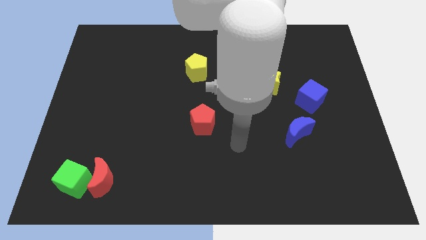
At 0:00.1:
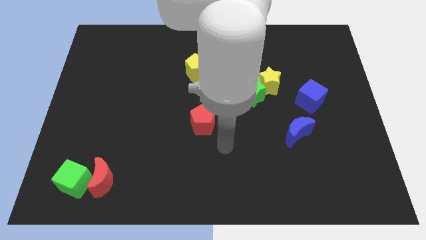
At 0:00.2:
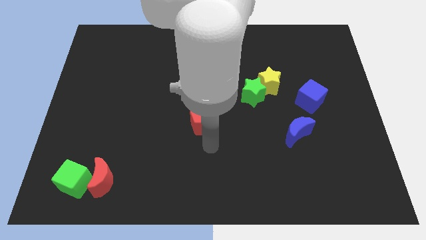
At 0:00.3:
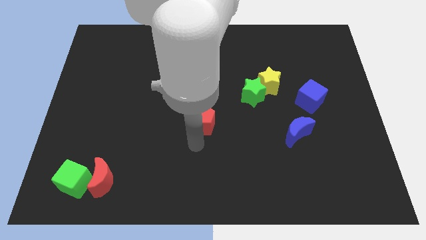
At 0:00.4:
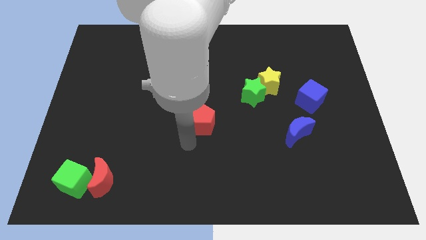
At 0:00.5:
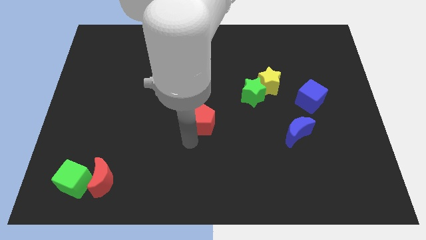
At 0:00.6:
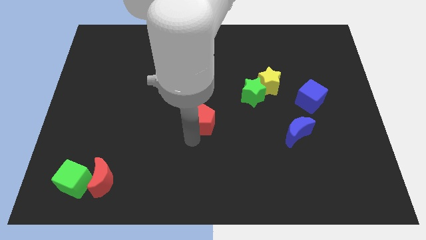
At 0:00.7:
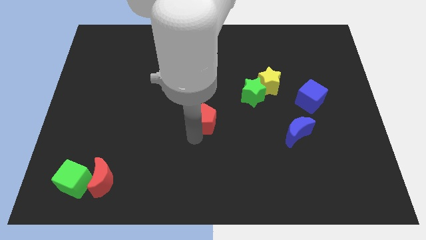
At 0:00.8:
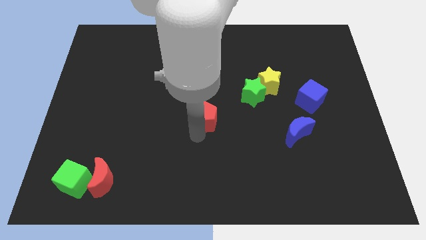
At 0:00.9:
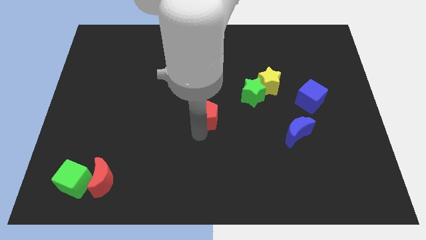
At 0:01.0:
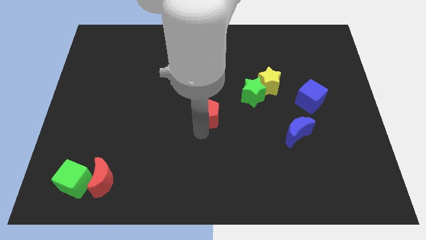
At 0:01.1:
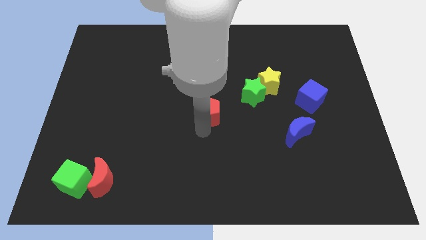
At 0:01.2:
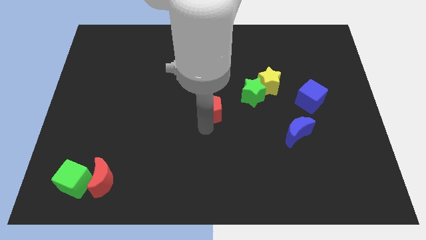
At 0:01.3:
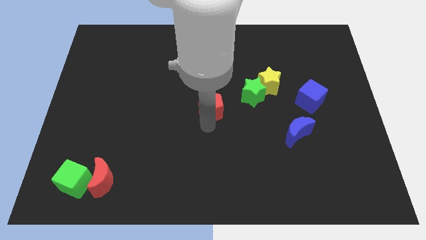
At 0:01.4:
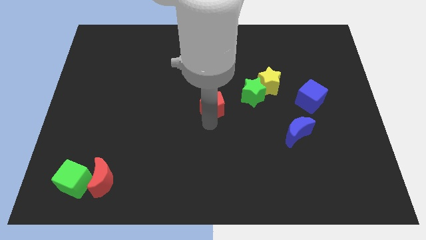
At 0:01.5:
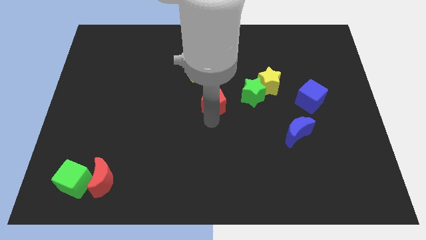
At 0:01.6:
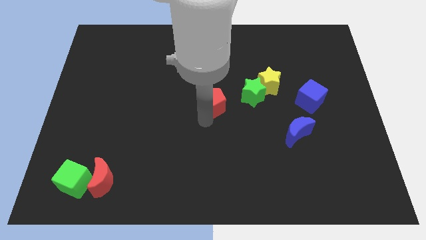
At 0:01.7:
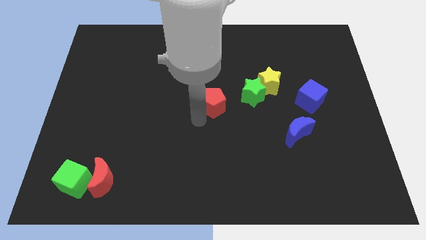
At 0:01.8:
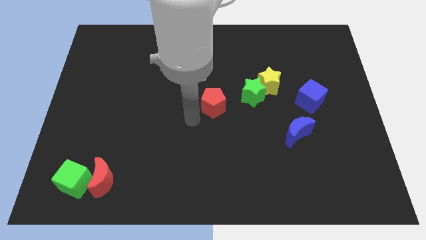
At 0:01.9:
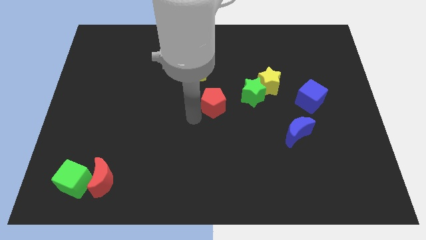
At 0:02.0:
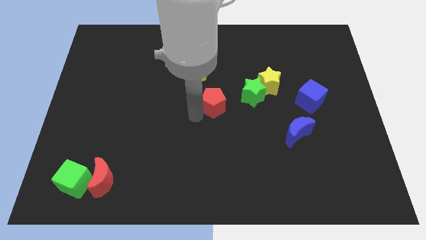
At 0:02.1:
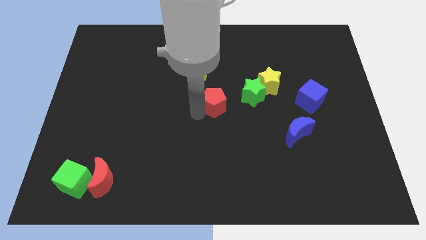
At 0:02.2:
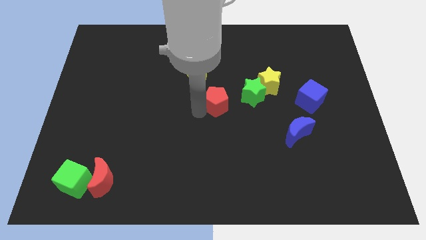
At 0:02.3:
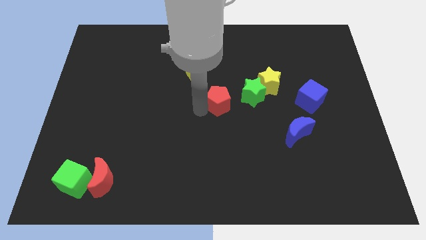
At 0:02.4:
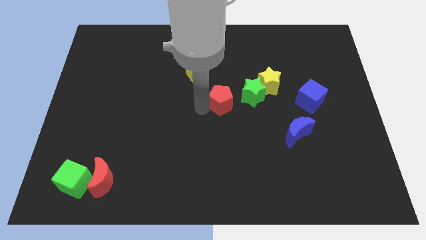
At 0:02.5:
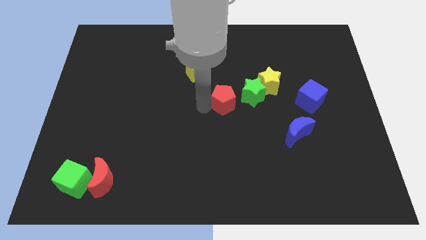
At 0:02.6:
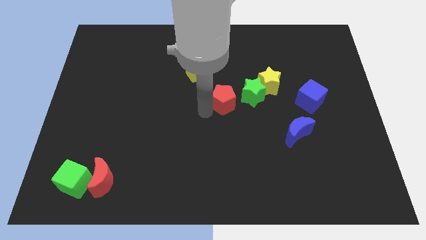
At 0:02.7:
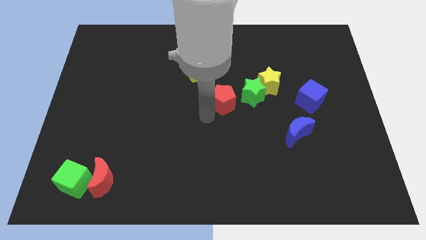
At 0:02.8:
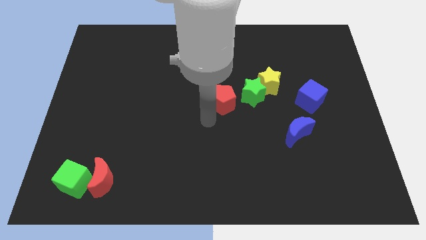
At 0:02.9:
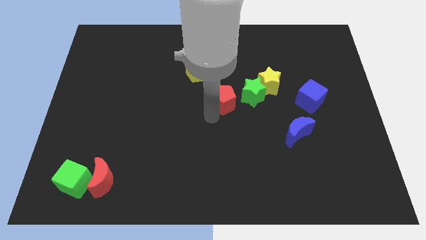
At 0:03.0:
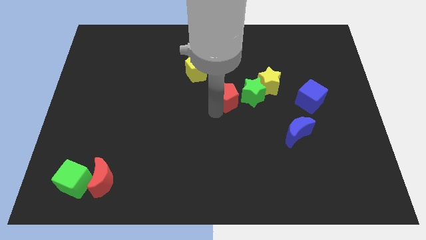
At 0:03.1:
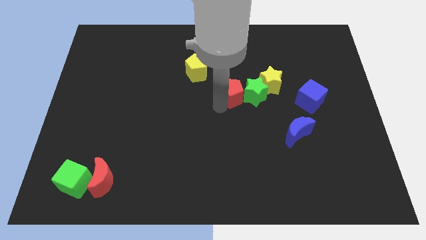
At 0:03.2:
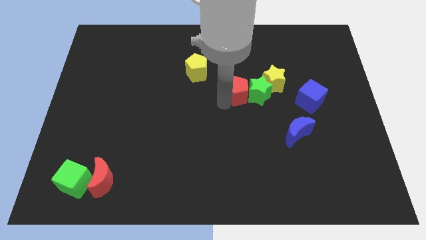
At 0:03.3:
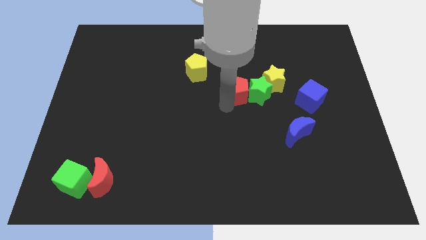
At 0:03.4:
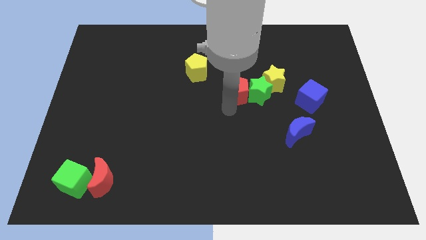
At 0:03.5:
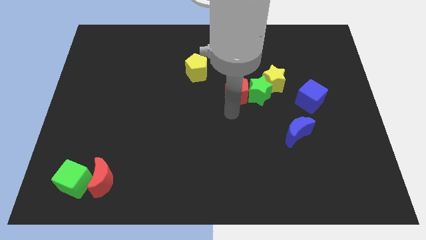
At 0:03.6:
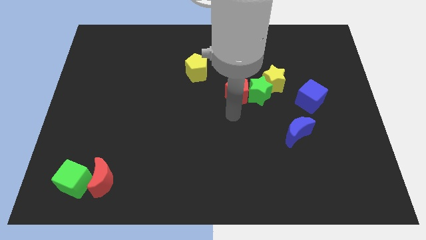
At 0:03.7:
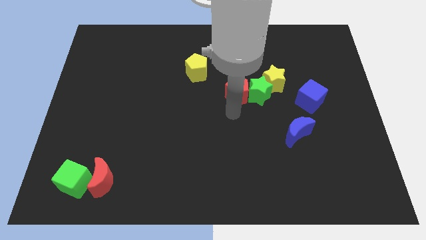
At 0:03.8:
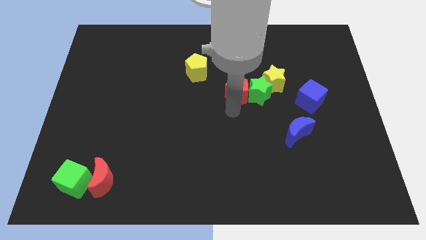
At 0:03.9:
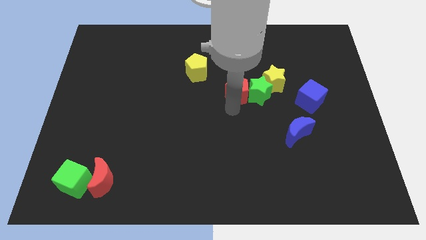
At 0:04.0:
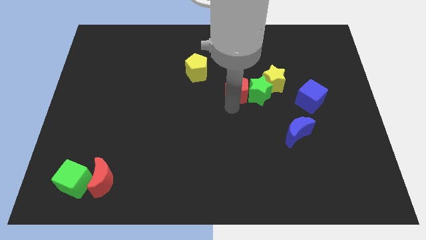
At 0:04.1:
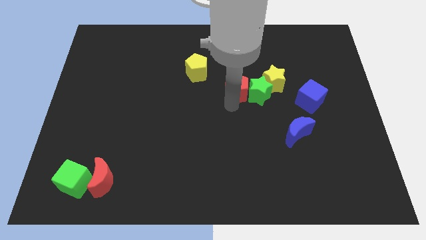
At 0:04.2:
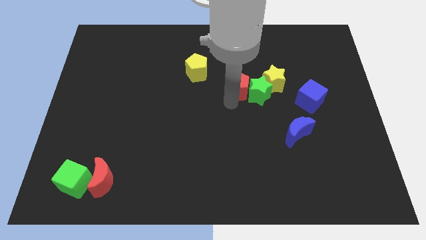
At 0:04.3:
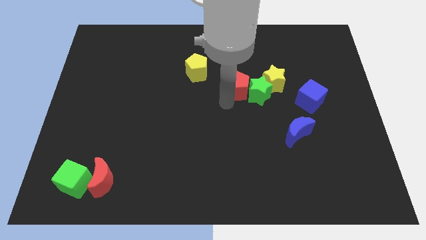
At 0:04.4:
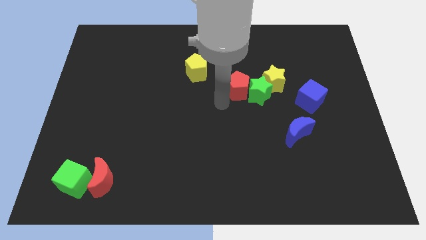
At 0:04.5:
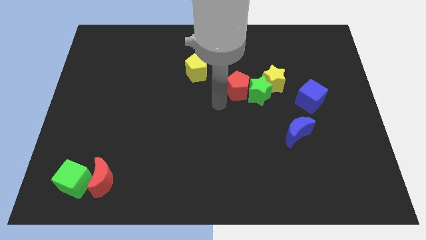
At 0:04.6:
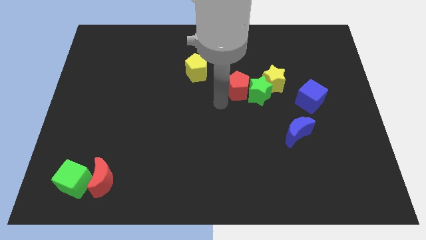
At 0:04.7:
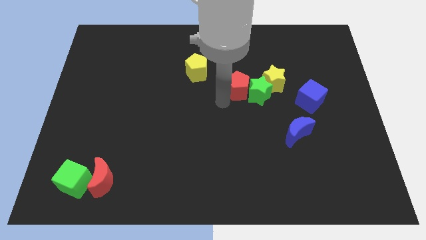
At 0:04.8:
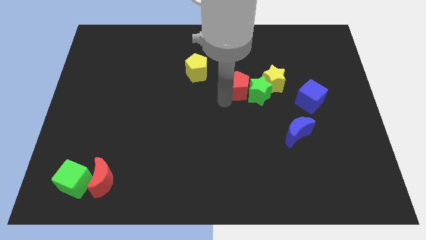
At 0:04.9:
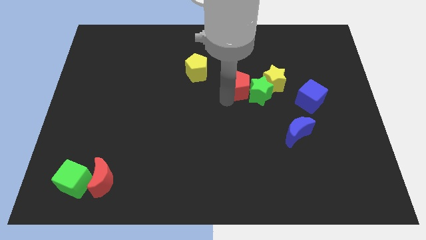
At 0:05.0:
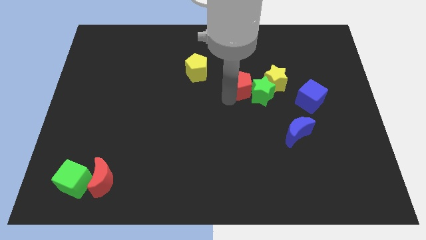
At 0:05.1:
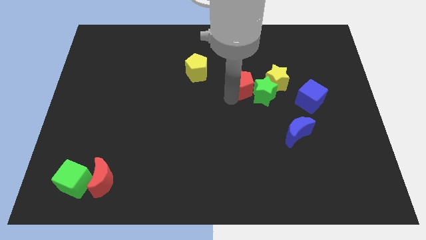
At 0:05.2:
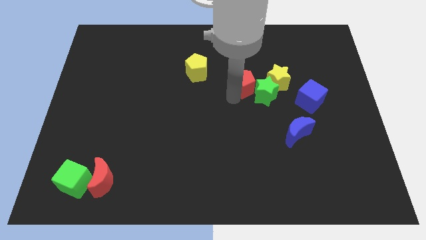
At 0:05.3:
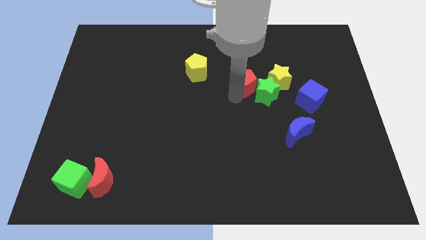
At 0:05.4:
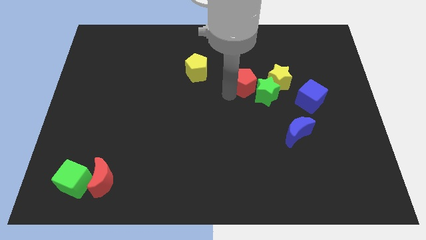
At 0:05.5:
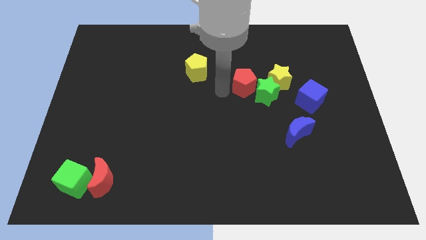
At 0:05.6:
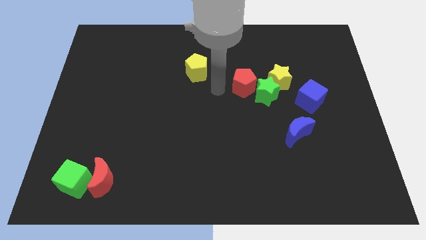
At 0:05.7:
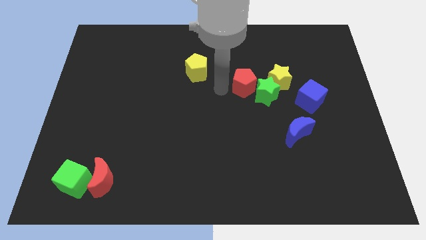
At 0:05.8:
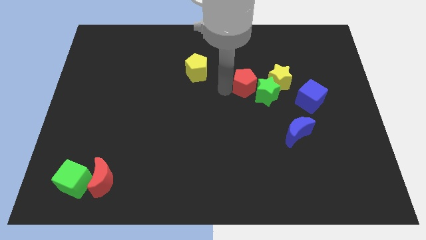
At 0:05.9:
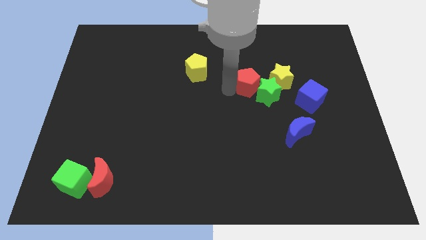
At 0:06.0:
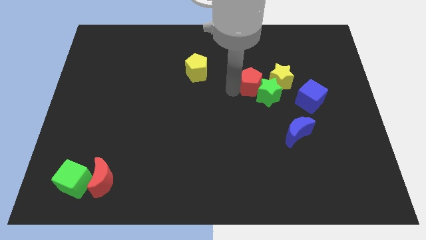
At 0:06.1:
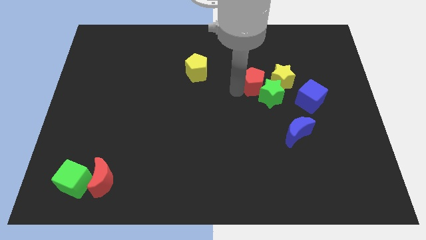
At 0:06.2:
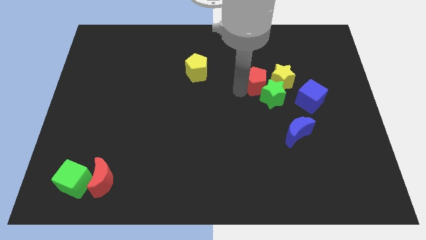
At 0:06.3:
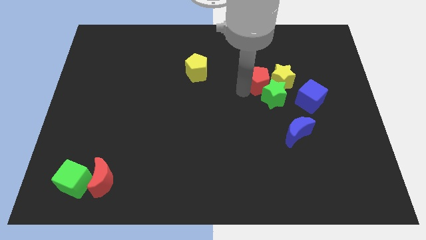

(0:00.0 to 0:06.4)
push the red pentagon towards the yellow star

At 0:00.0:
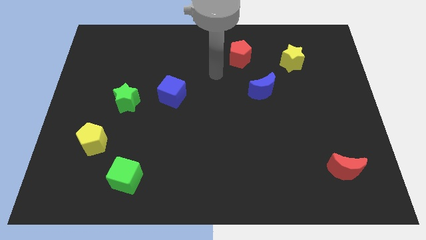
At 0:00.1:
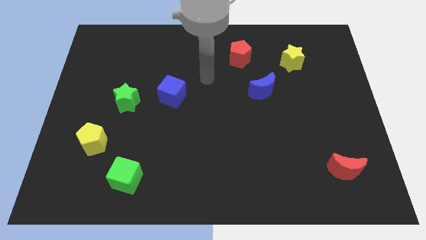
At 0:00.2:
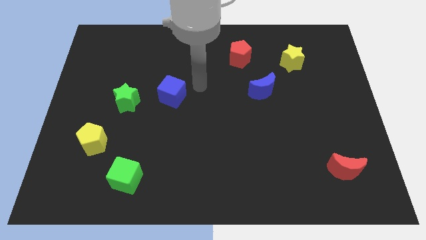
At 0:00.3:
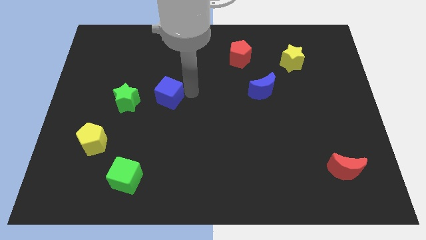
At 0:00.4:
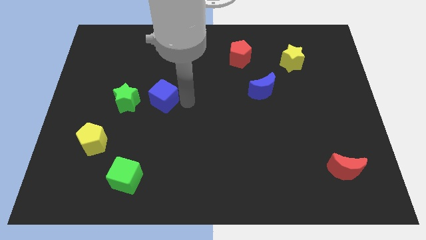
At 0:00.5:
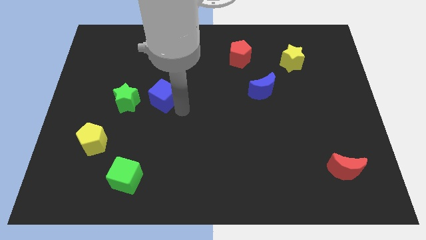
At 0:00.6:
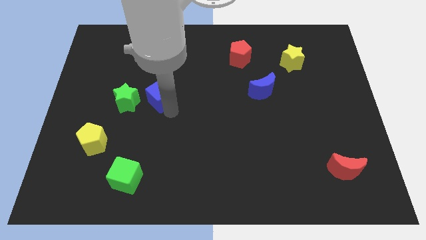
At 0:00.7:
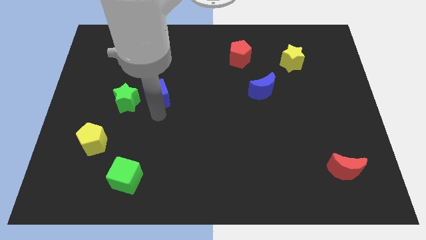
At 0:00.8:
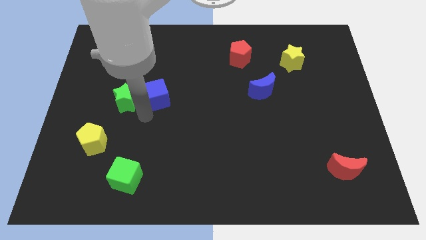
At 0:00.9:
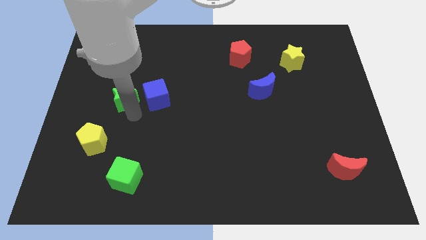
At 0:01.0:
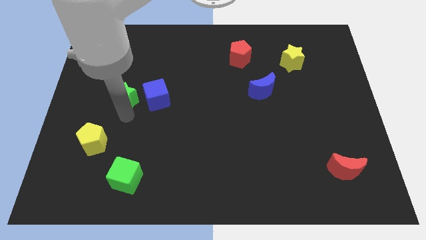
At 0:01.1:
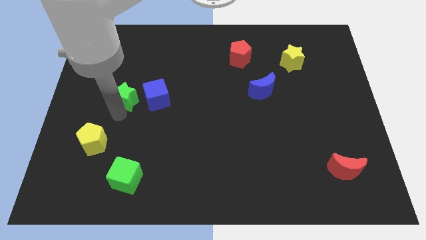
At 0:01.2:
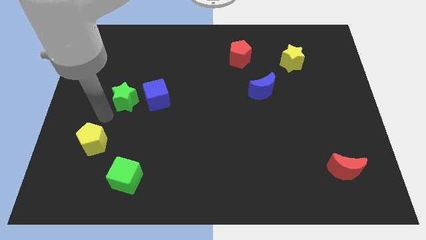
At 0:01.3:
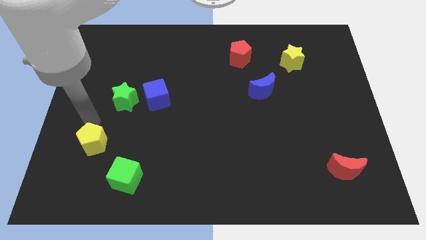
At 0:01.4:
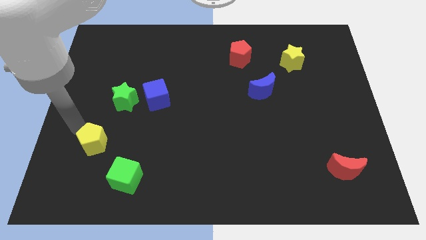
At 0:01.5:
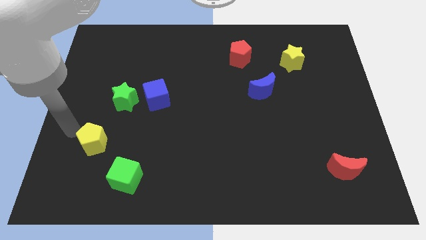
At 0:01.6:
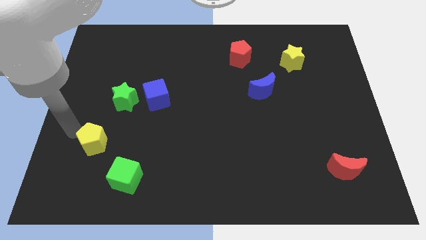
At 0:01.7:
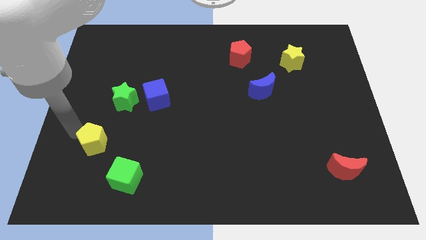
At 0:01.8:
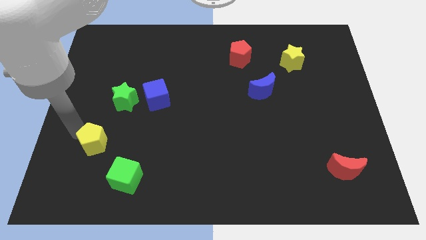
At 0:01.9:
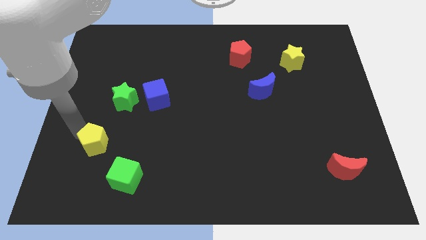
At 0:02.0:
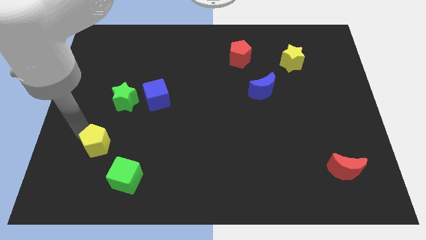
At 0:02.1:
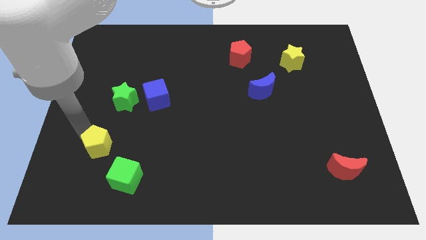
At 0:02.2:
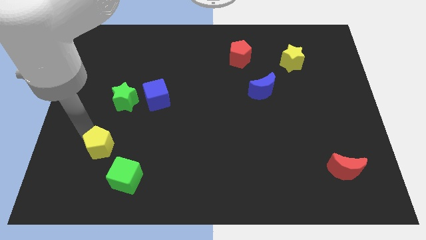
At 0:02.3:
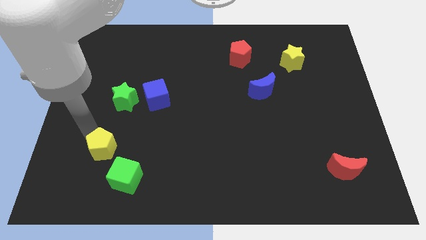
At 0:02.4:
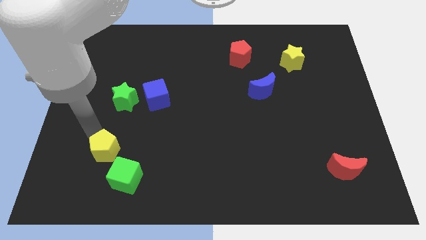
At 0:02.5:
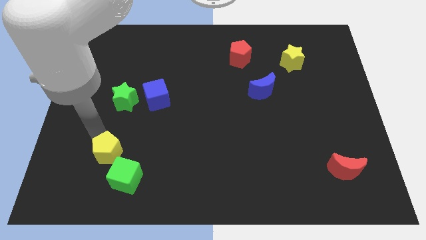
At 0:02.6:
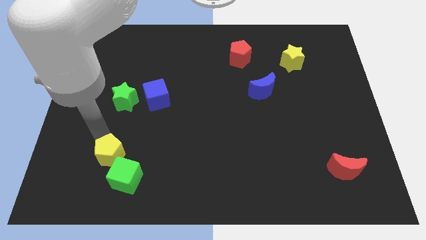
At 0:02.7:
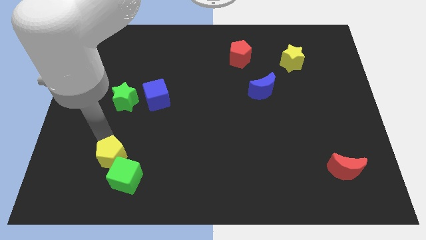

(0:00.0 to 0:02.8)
move the yellow pentagon towards the green cube
